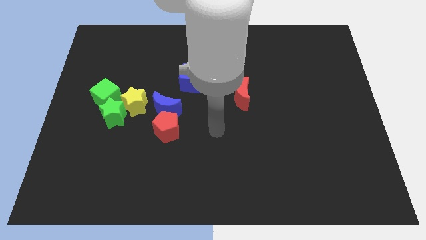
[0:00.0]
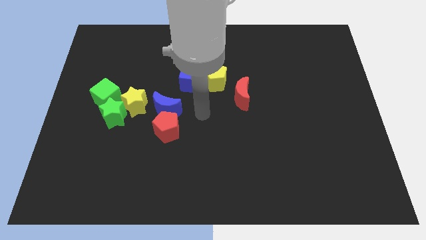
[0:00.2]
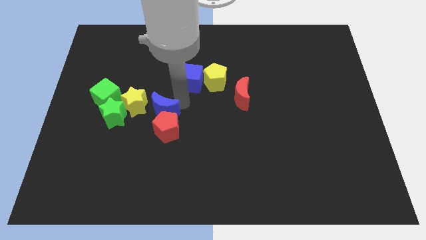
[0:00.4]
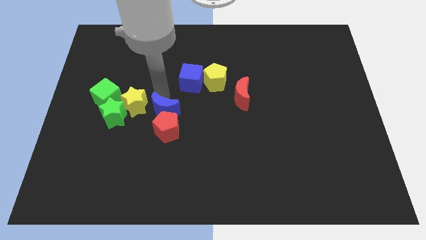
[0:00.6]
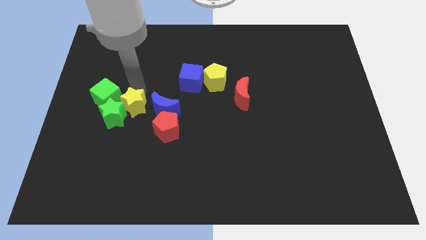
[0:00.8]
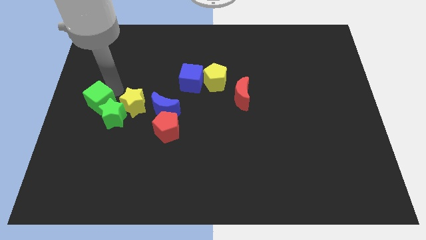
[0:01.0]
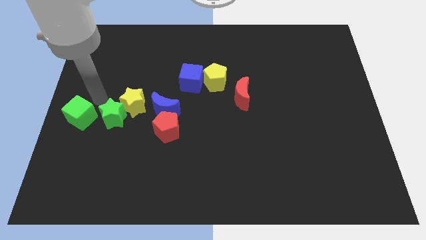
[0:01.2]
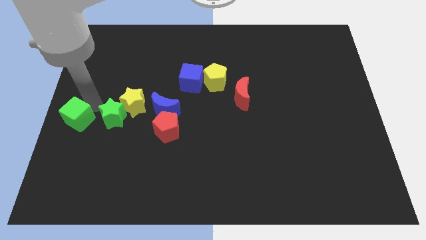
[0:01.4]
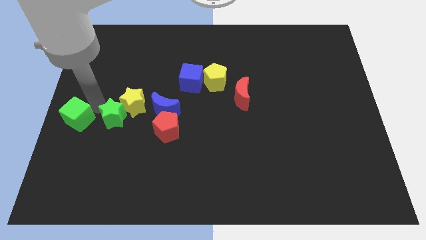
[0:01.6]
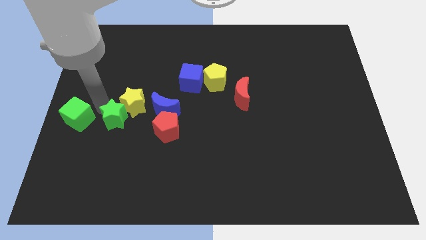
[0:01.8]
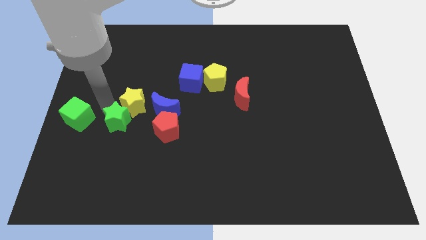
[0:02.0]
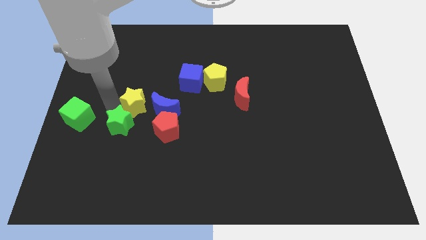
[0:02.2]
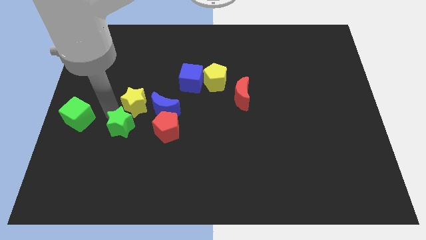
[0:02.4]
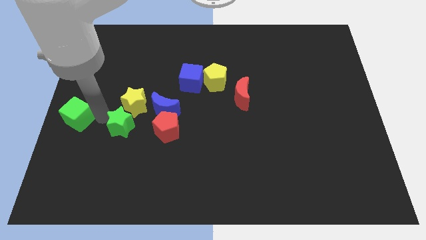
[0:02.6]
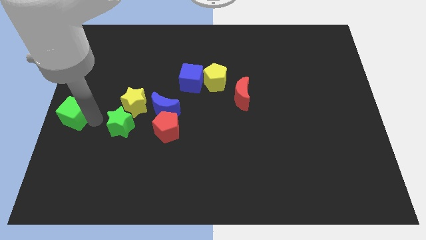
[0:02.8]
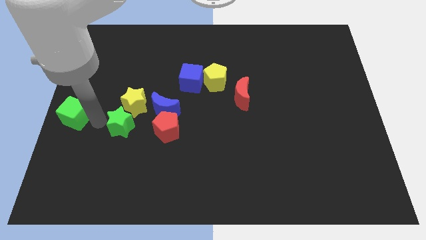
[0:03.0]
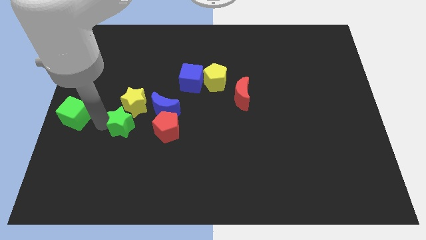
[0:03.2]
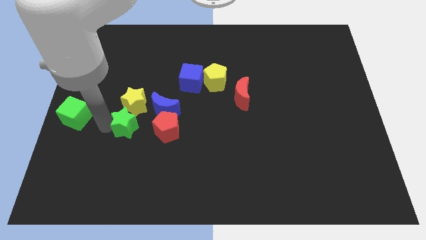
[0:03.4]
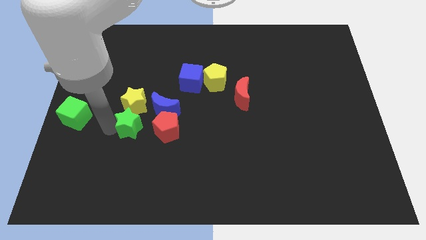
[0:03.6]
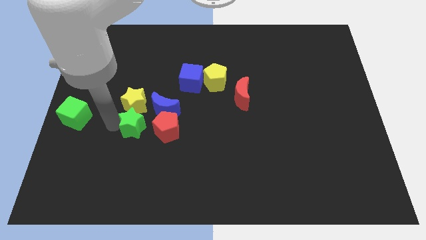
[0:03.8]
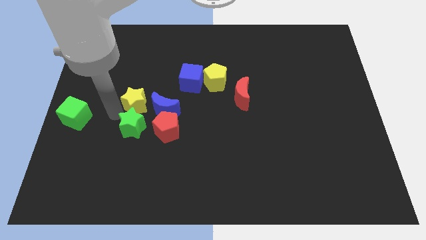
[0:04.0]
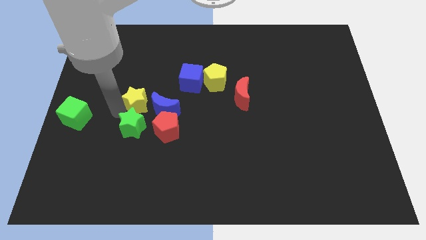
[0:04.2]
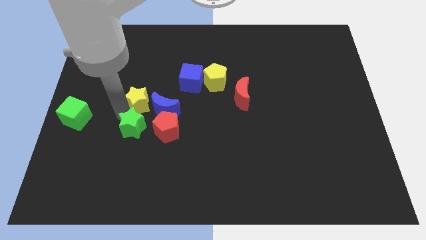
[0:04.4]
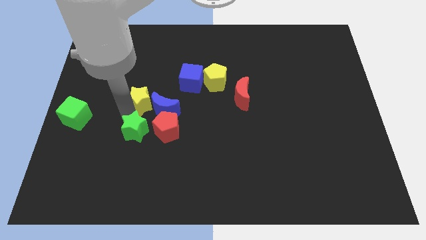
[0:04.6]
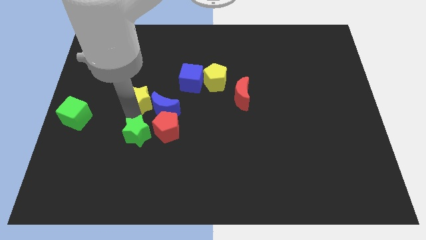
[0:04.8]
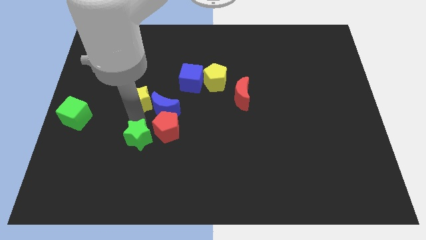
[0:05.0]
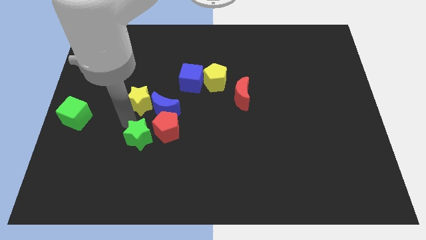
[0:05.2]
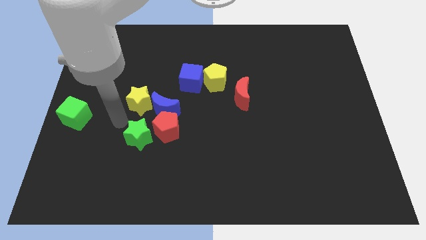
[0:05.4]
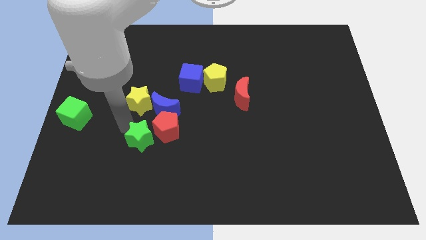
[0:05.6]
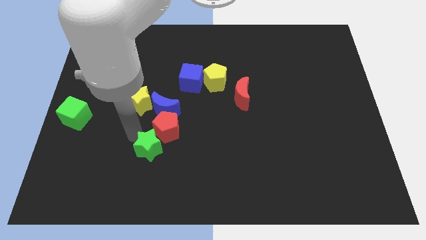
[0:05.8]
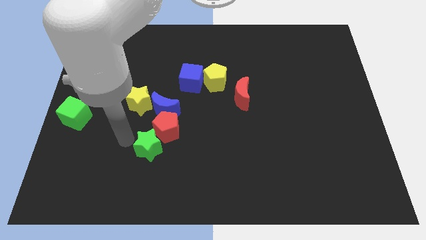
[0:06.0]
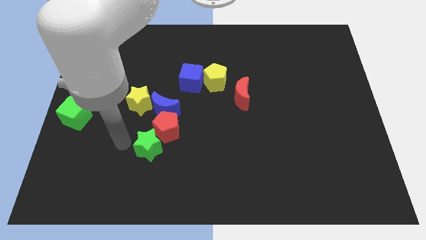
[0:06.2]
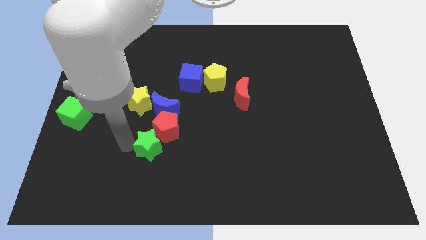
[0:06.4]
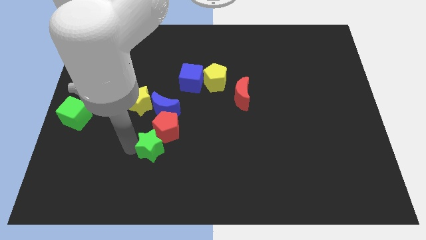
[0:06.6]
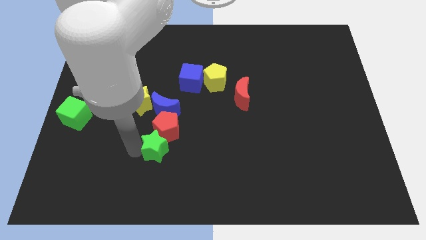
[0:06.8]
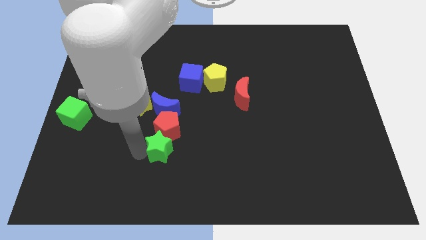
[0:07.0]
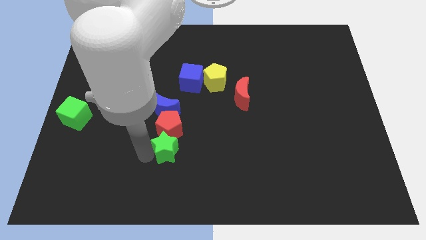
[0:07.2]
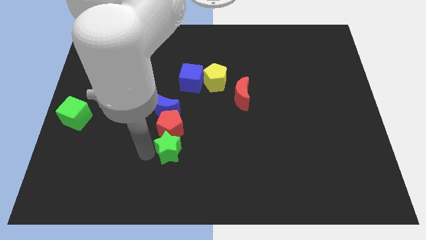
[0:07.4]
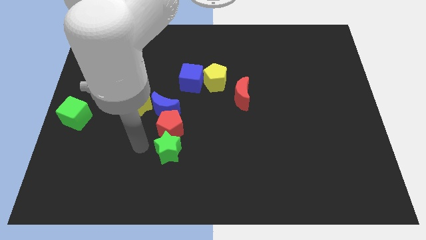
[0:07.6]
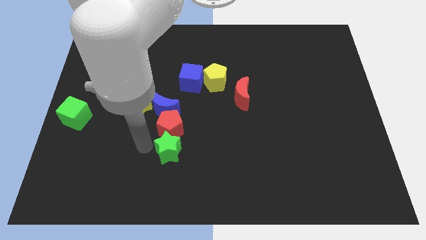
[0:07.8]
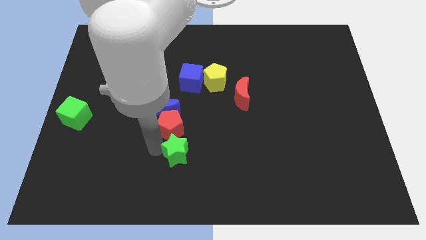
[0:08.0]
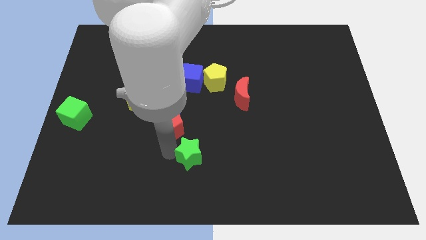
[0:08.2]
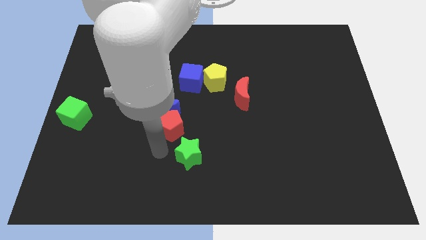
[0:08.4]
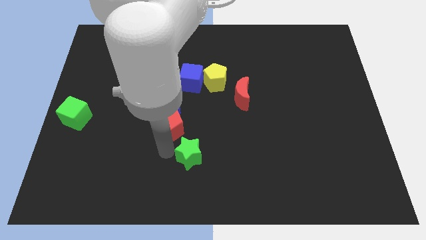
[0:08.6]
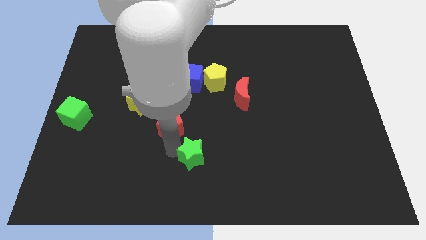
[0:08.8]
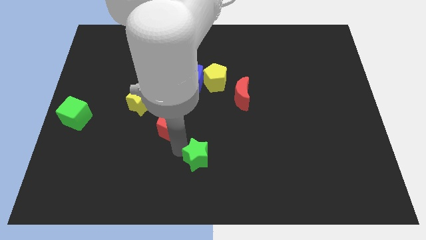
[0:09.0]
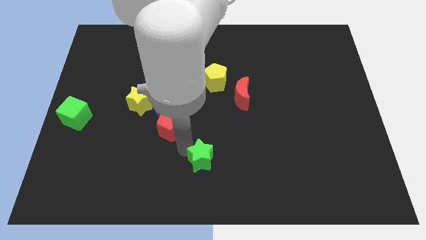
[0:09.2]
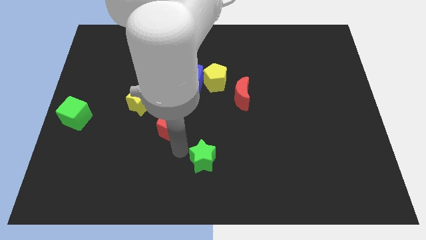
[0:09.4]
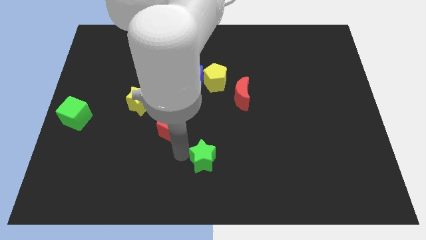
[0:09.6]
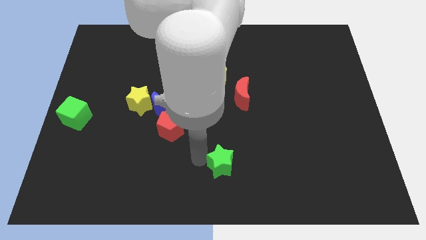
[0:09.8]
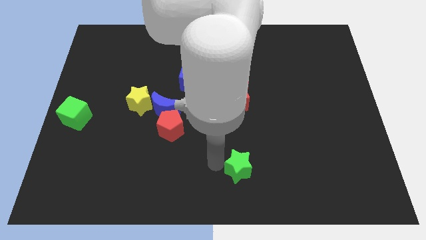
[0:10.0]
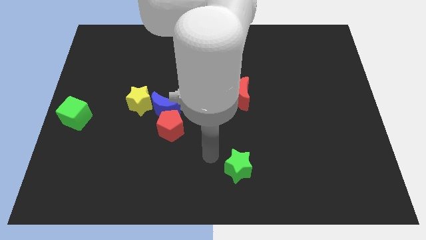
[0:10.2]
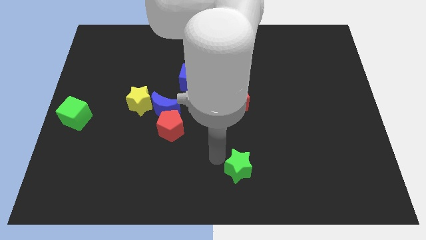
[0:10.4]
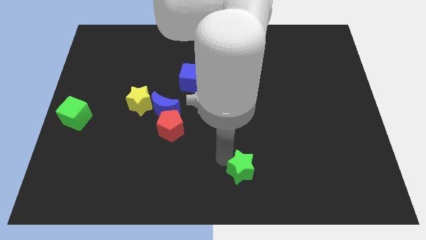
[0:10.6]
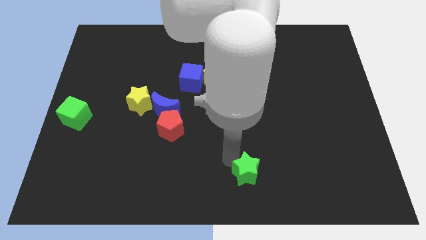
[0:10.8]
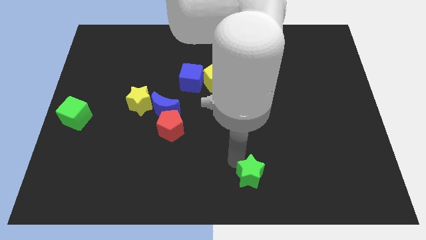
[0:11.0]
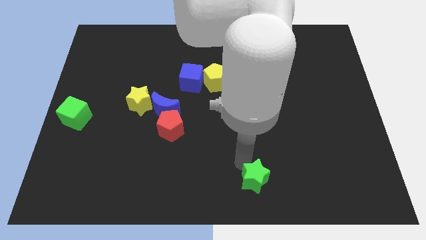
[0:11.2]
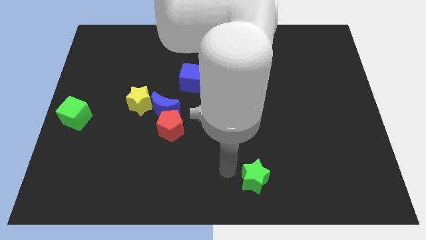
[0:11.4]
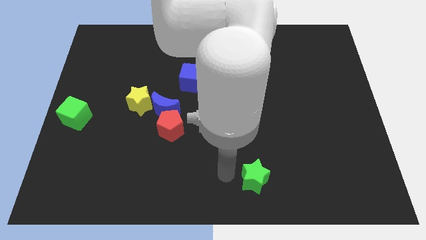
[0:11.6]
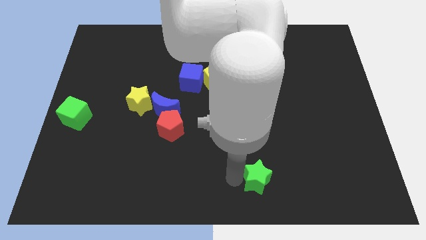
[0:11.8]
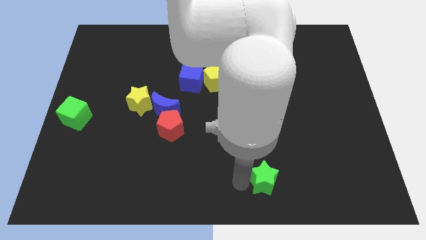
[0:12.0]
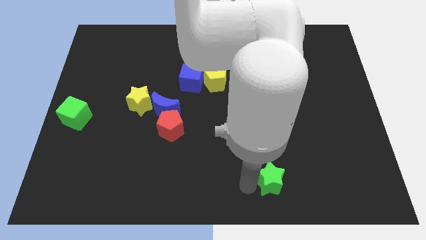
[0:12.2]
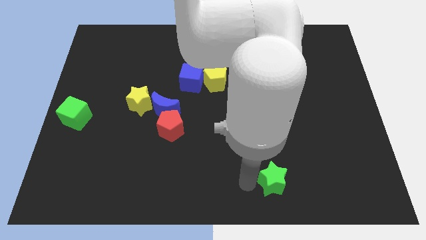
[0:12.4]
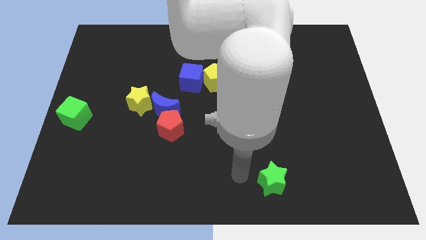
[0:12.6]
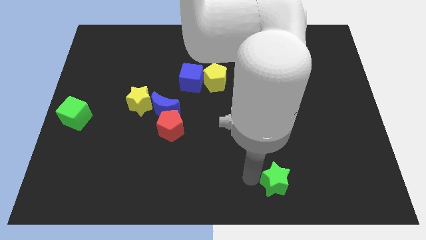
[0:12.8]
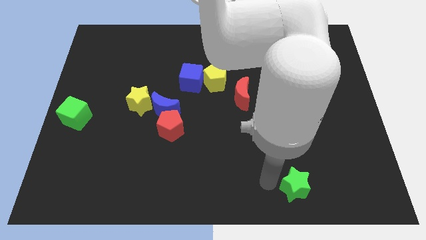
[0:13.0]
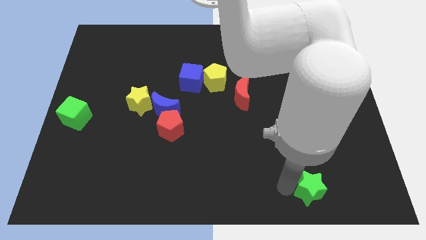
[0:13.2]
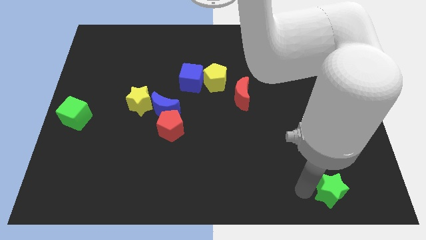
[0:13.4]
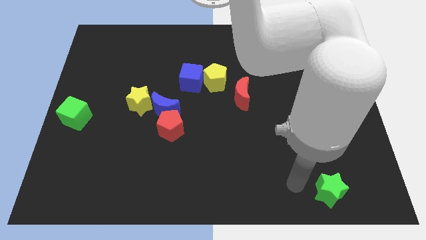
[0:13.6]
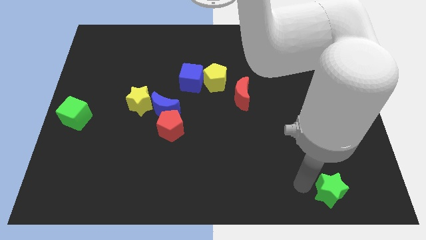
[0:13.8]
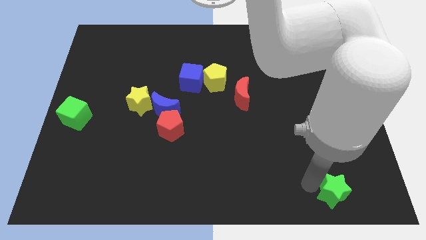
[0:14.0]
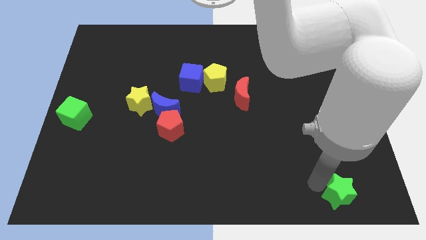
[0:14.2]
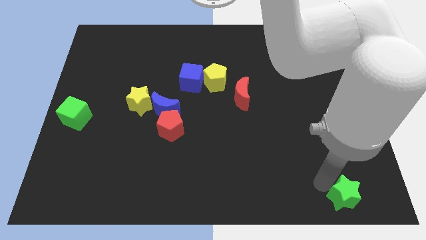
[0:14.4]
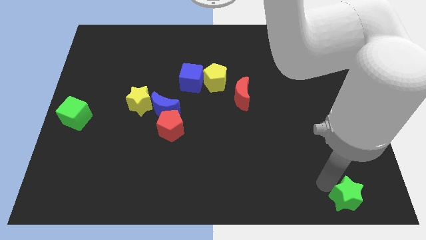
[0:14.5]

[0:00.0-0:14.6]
slide the green star to the bottom right
